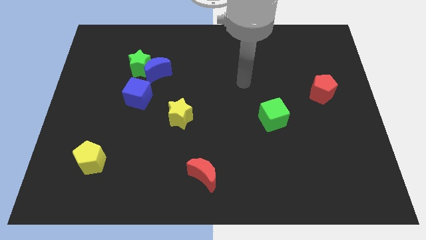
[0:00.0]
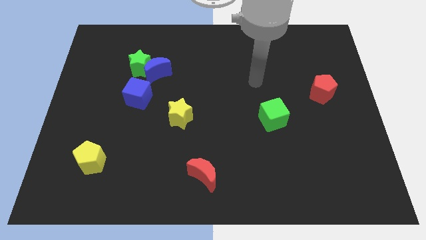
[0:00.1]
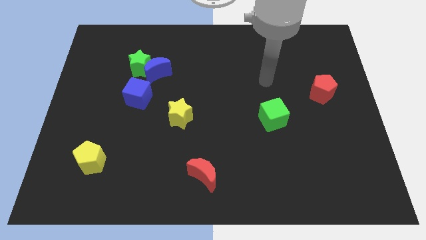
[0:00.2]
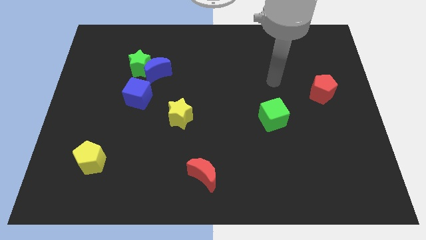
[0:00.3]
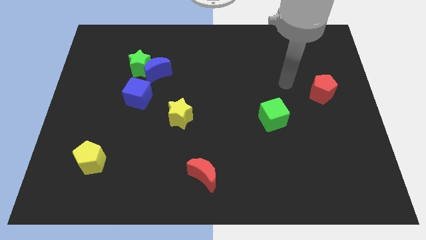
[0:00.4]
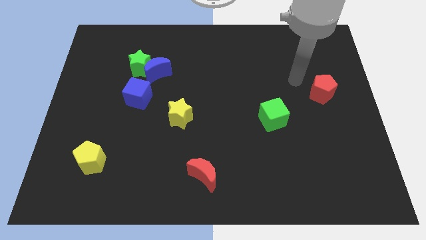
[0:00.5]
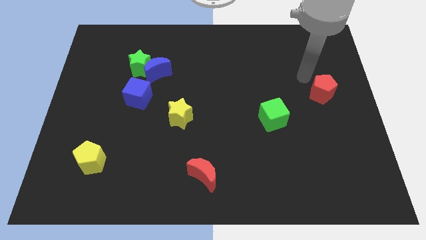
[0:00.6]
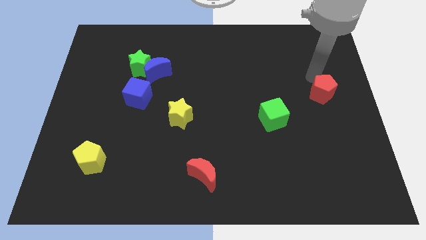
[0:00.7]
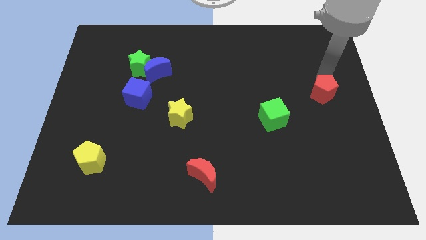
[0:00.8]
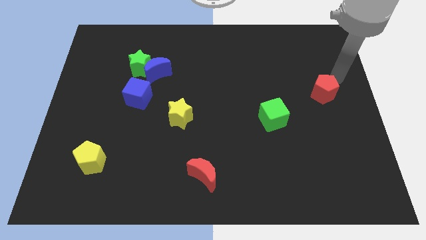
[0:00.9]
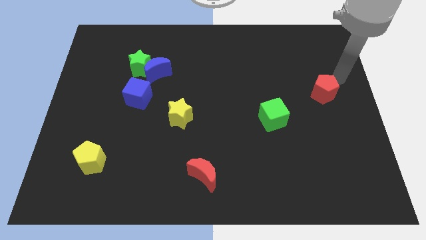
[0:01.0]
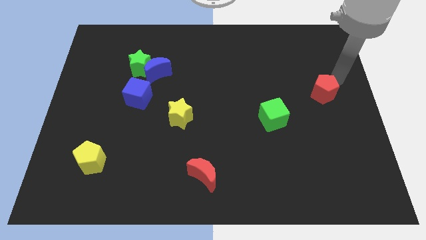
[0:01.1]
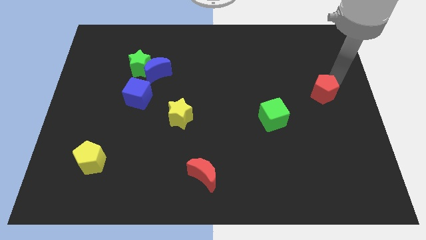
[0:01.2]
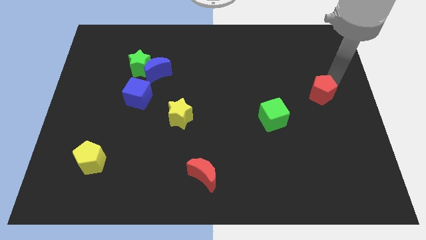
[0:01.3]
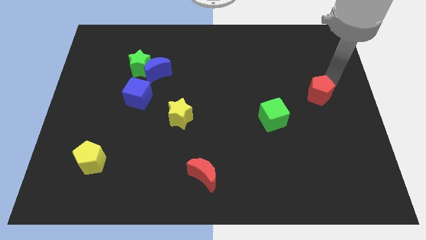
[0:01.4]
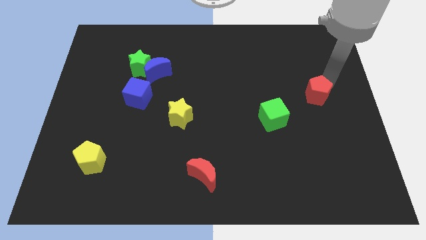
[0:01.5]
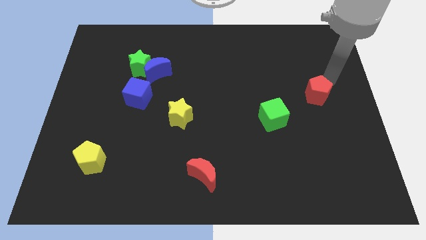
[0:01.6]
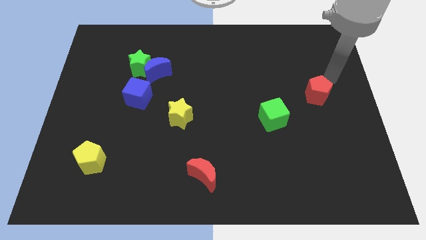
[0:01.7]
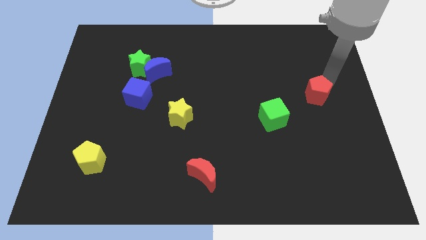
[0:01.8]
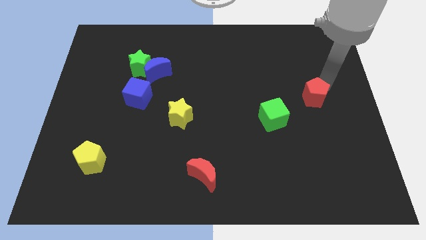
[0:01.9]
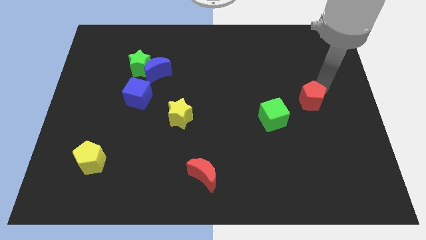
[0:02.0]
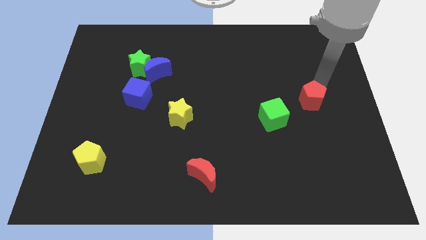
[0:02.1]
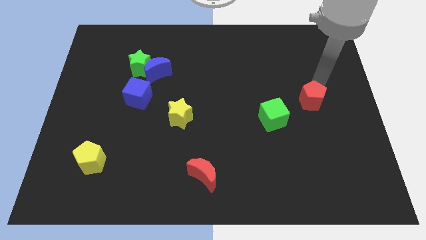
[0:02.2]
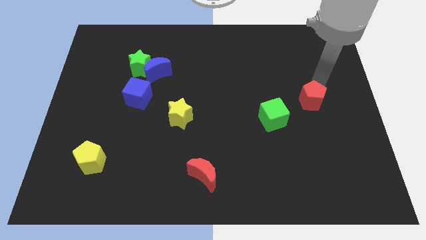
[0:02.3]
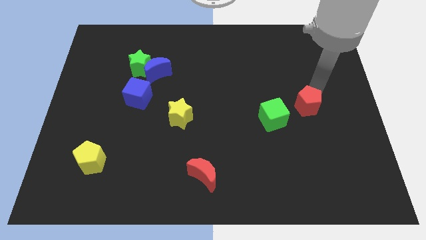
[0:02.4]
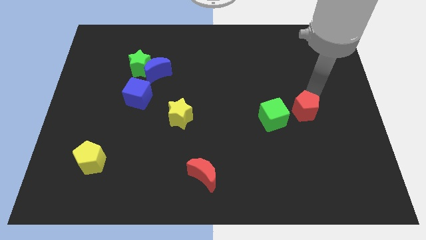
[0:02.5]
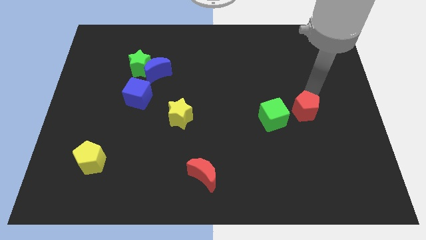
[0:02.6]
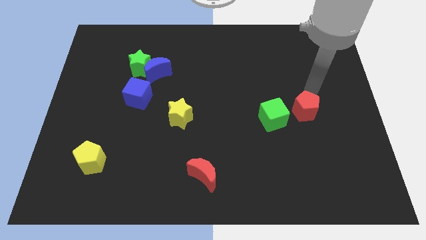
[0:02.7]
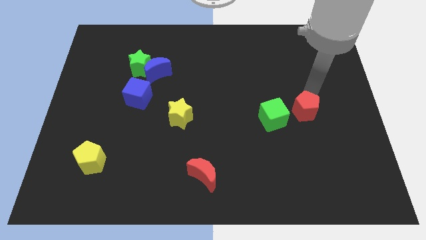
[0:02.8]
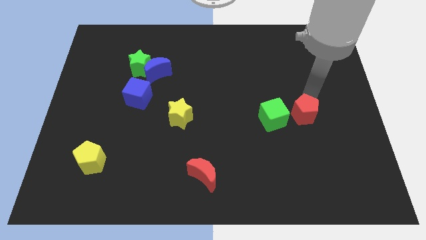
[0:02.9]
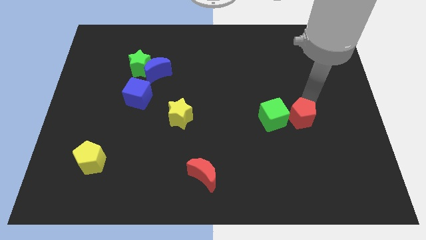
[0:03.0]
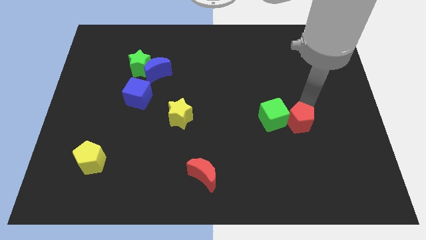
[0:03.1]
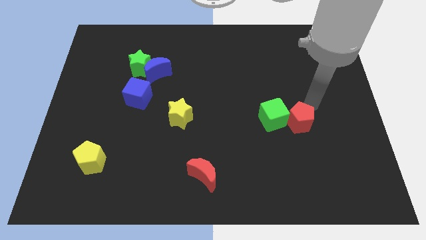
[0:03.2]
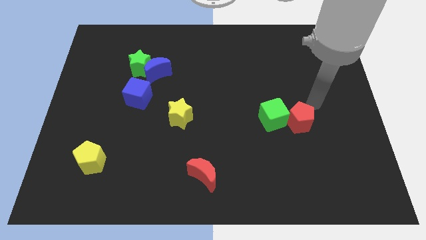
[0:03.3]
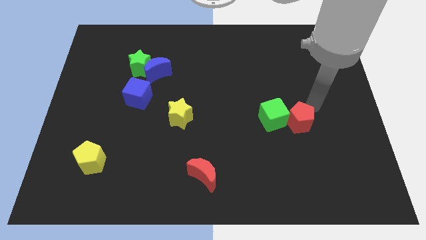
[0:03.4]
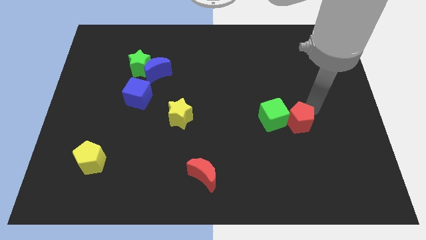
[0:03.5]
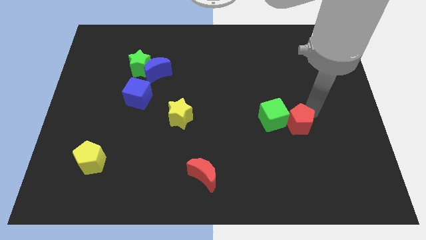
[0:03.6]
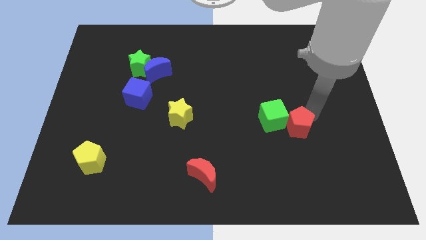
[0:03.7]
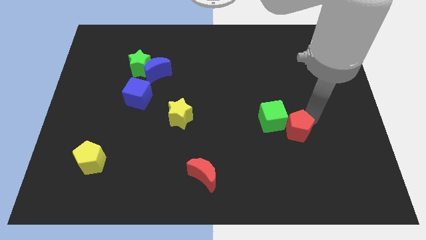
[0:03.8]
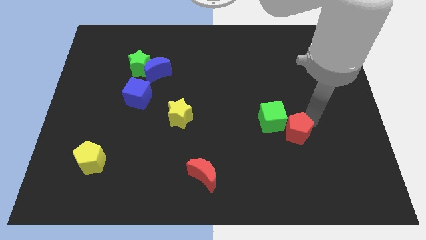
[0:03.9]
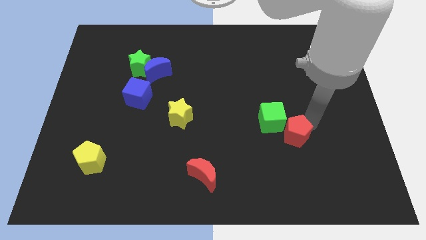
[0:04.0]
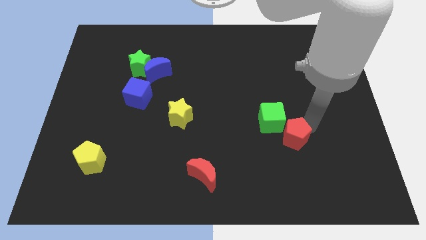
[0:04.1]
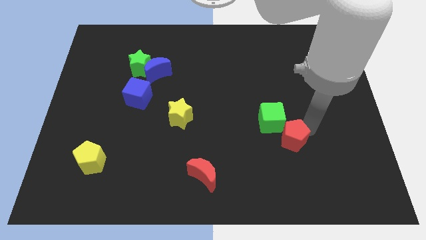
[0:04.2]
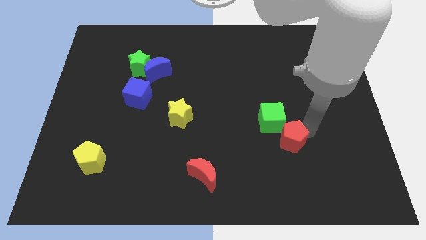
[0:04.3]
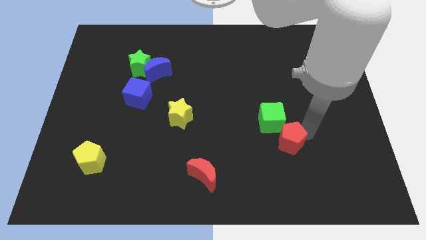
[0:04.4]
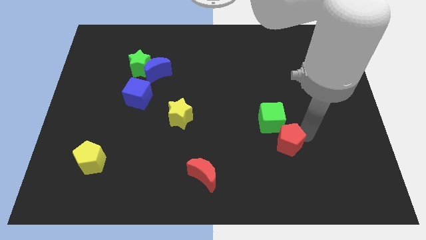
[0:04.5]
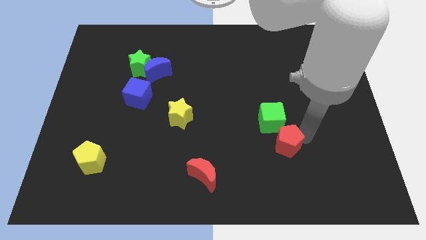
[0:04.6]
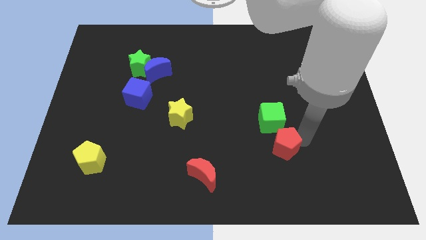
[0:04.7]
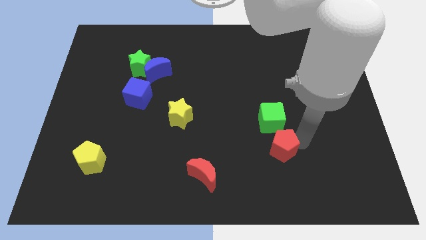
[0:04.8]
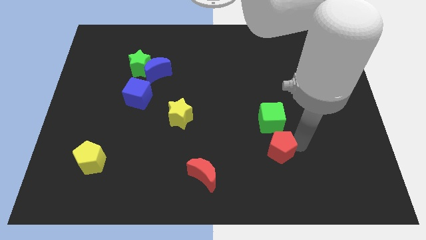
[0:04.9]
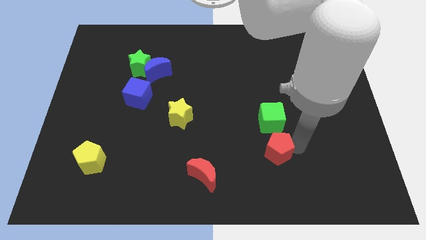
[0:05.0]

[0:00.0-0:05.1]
push the red pentagon diagonally down and to the left

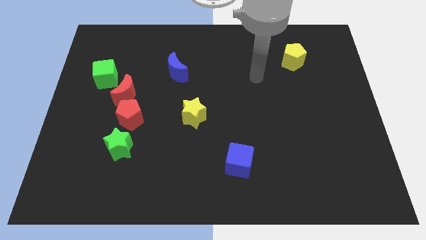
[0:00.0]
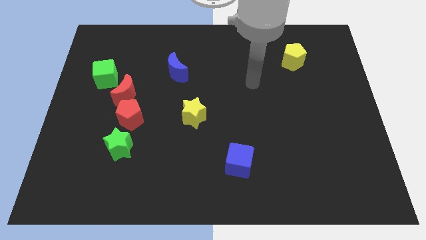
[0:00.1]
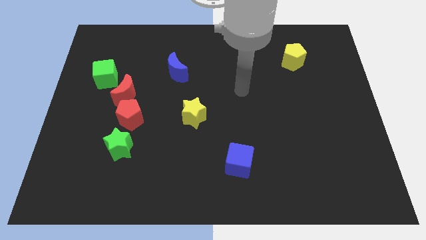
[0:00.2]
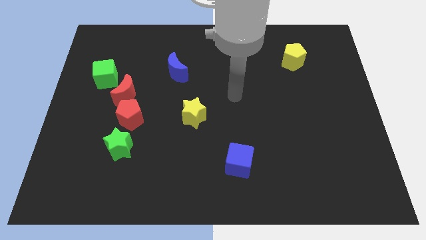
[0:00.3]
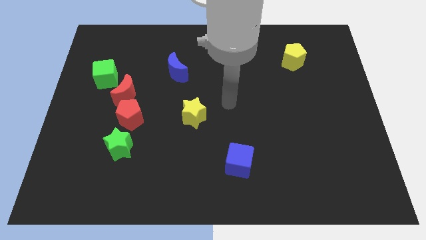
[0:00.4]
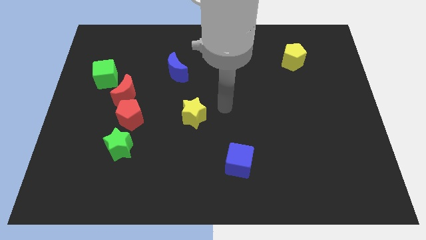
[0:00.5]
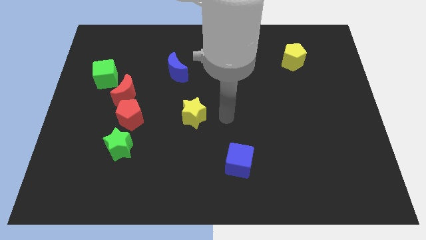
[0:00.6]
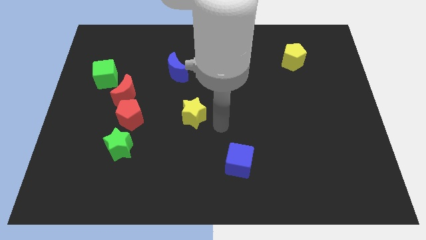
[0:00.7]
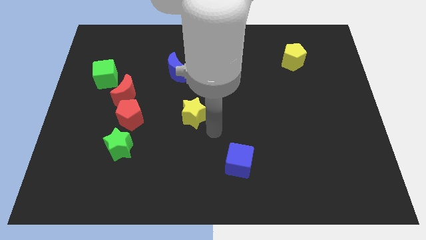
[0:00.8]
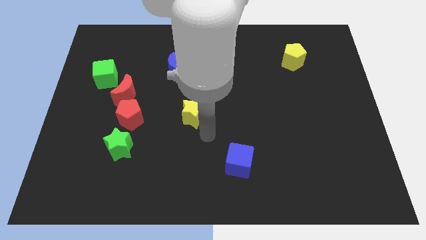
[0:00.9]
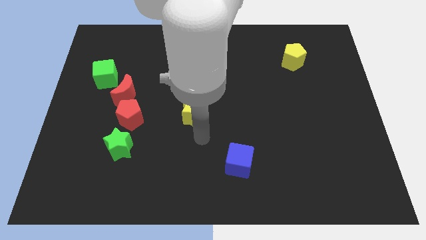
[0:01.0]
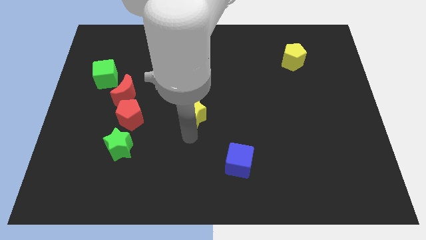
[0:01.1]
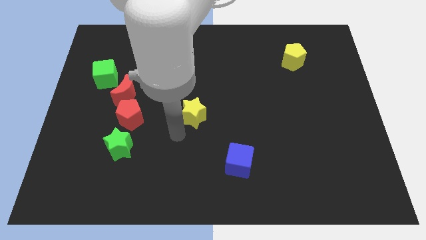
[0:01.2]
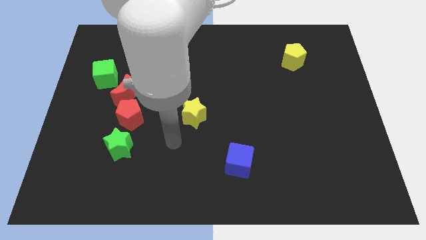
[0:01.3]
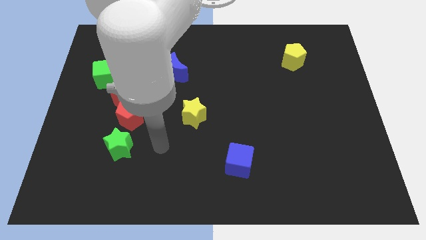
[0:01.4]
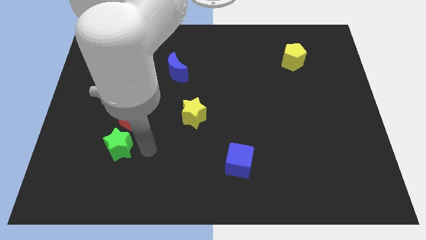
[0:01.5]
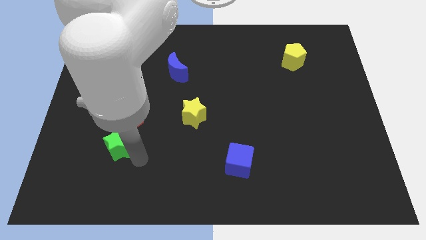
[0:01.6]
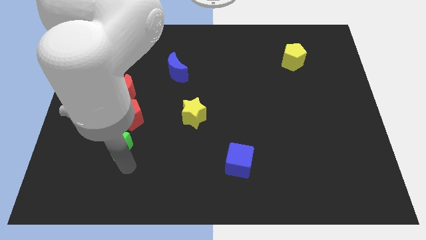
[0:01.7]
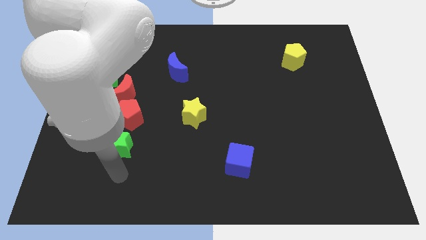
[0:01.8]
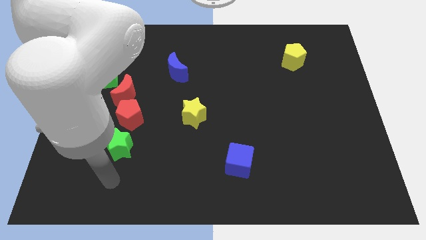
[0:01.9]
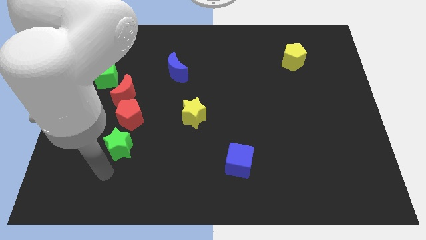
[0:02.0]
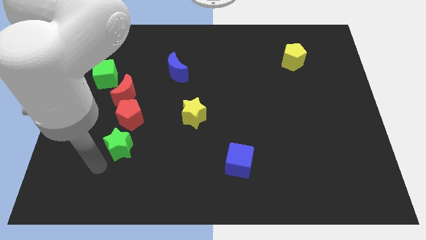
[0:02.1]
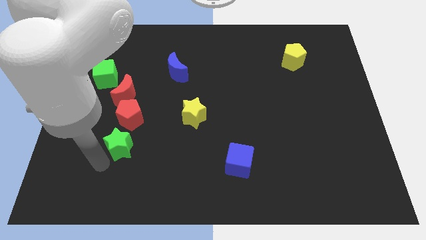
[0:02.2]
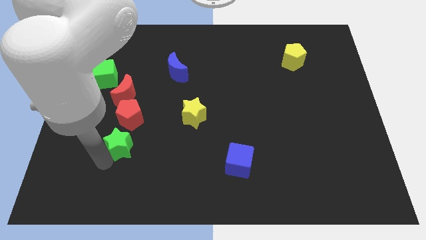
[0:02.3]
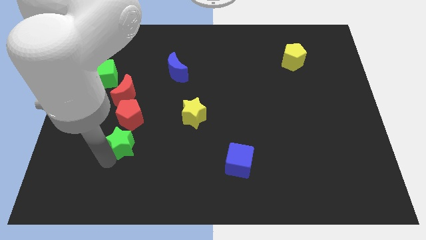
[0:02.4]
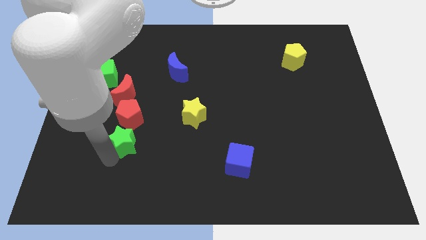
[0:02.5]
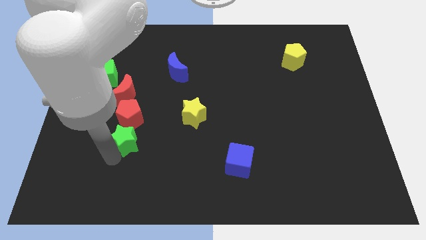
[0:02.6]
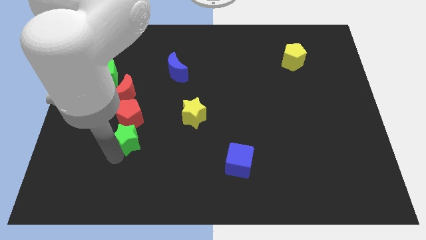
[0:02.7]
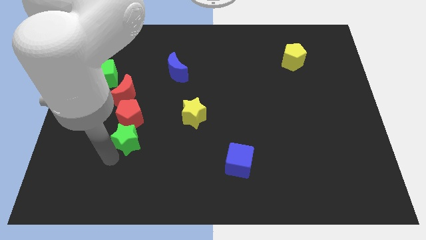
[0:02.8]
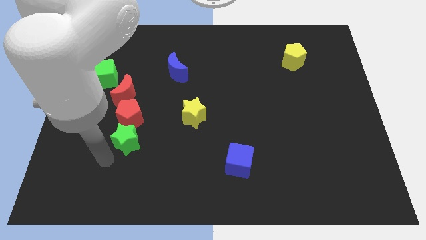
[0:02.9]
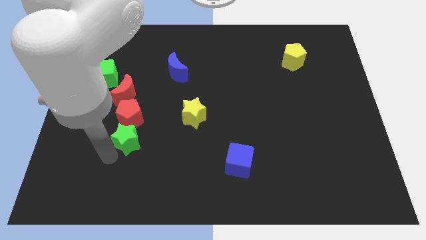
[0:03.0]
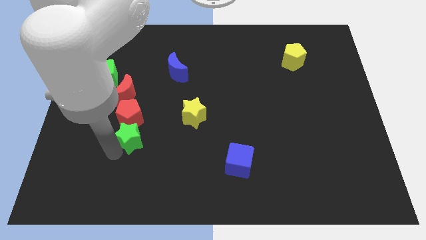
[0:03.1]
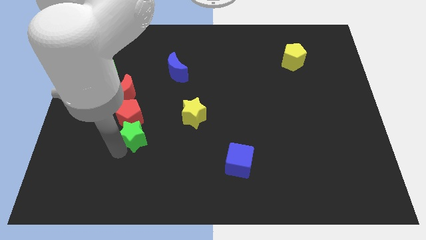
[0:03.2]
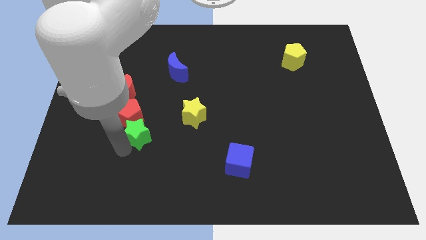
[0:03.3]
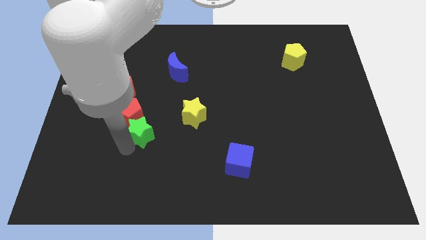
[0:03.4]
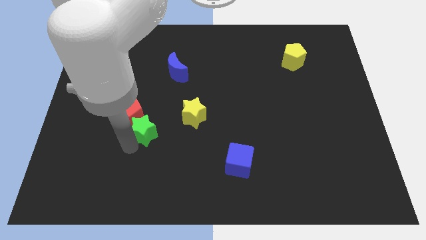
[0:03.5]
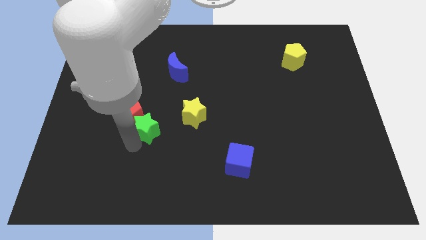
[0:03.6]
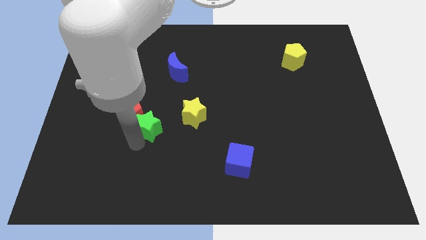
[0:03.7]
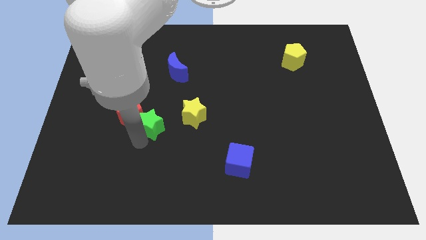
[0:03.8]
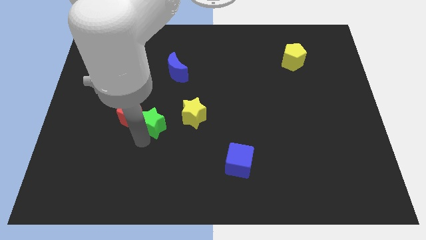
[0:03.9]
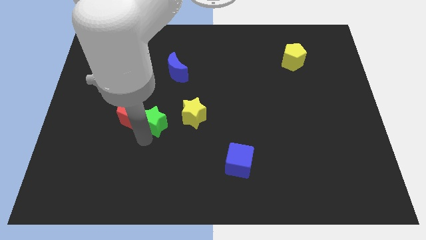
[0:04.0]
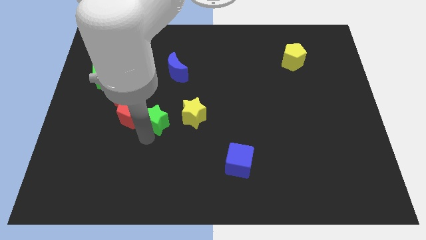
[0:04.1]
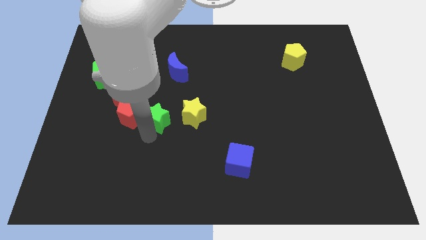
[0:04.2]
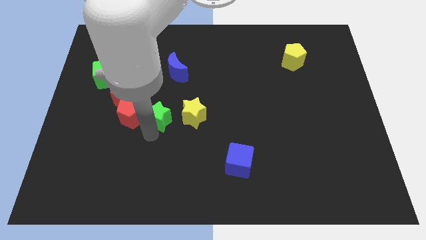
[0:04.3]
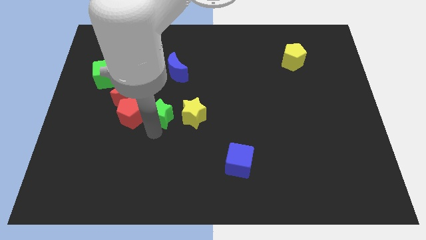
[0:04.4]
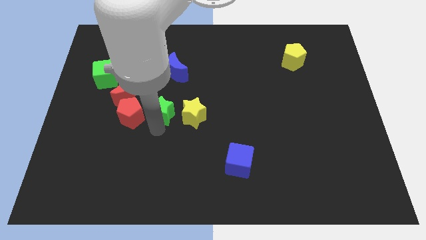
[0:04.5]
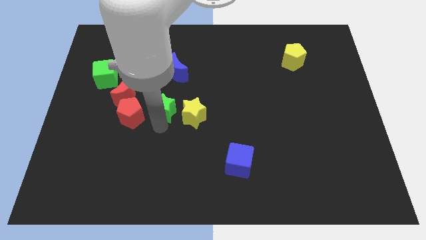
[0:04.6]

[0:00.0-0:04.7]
push the green star slightly up
